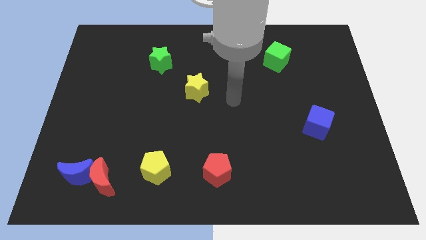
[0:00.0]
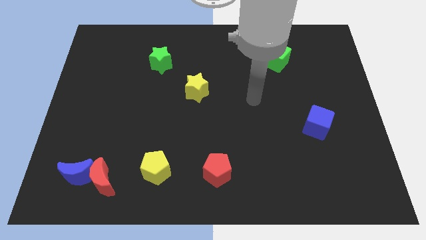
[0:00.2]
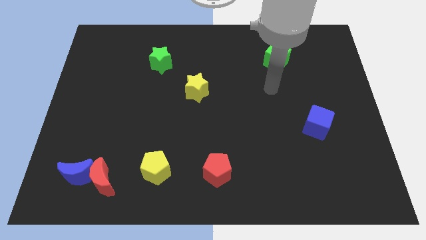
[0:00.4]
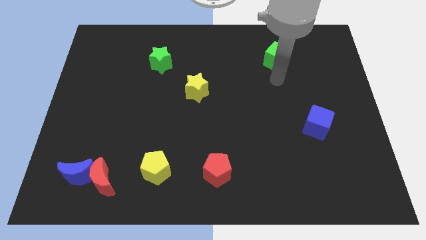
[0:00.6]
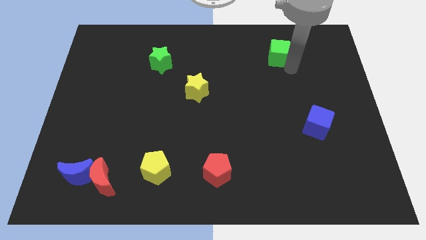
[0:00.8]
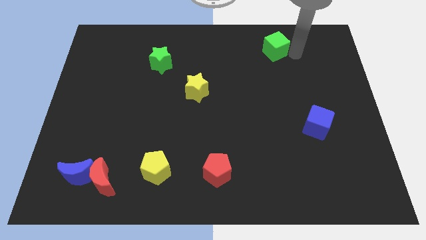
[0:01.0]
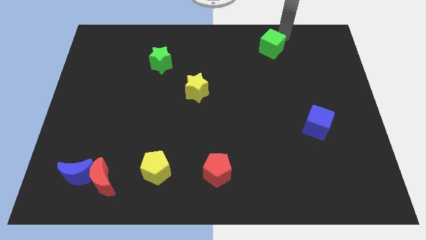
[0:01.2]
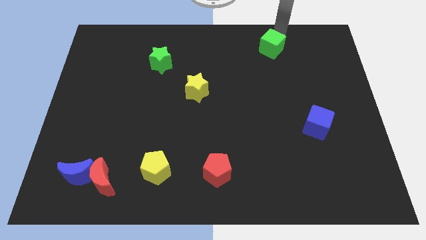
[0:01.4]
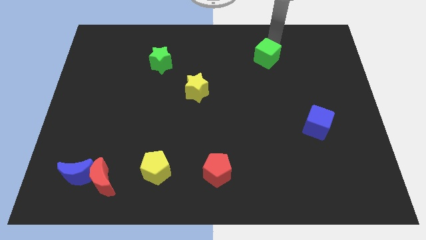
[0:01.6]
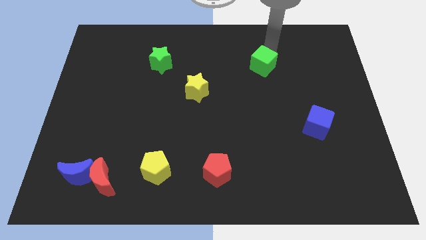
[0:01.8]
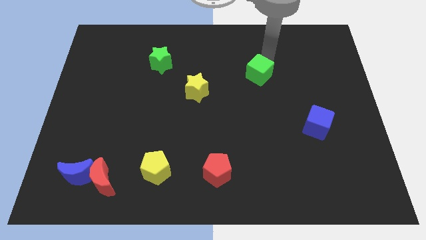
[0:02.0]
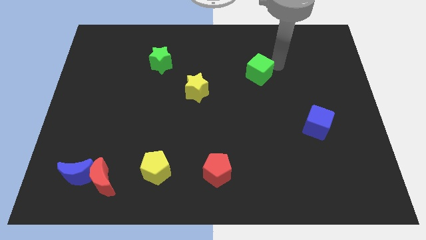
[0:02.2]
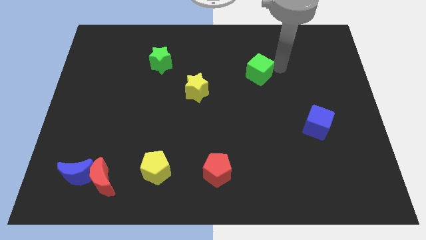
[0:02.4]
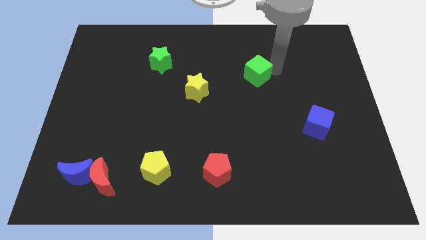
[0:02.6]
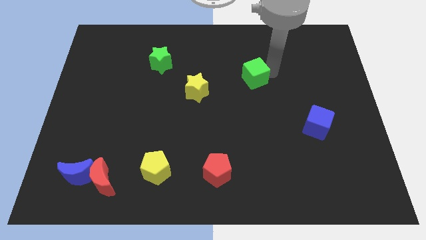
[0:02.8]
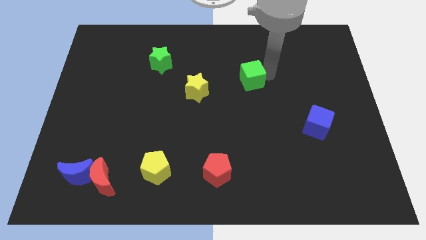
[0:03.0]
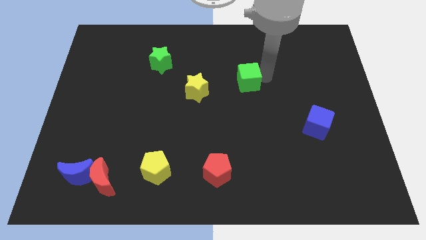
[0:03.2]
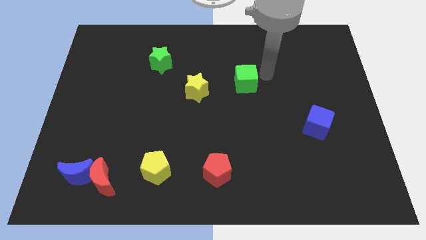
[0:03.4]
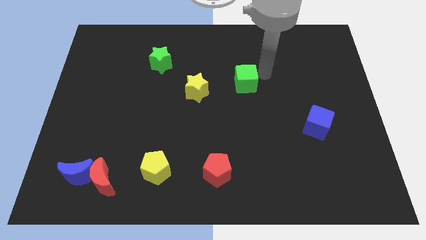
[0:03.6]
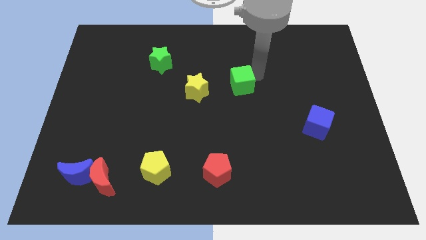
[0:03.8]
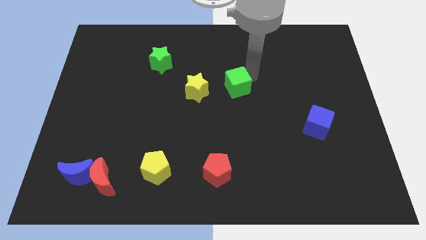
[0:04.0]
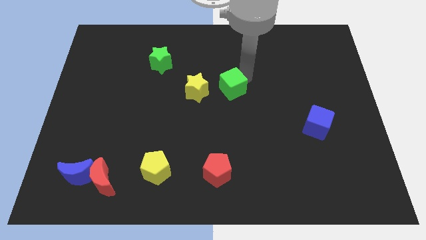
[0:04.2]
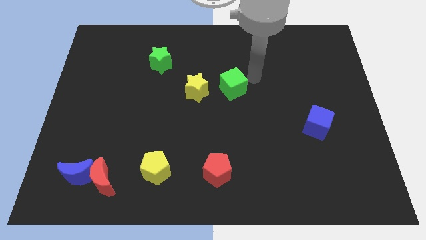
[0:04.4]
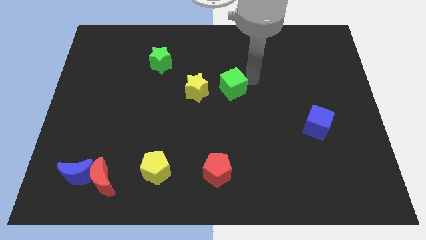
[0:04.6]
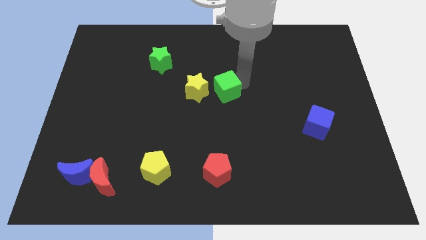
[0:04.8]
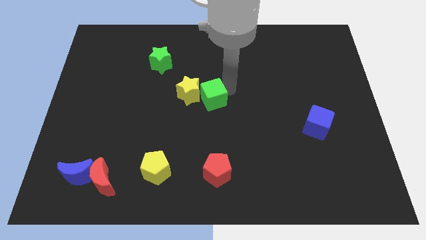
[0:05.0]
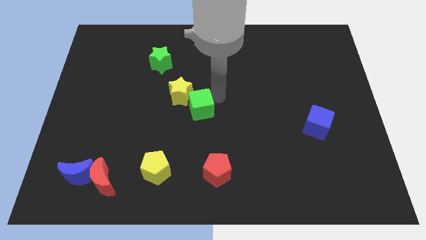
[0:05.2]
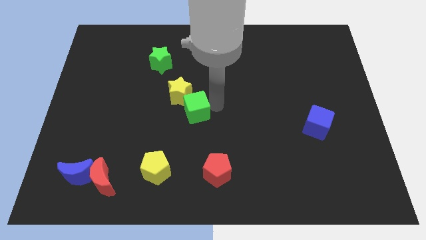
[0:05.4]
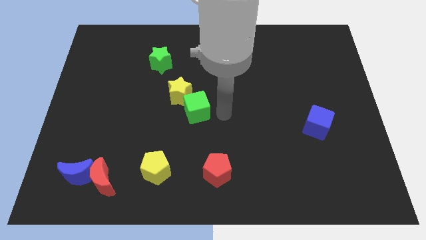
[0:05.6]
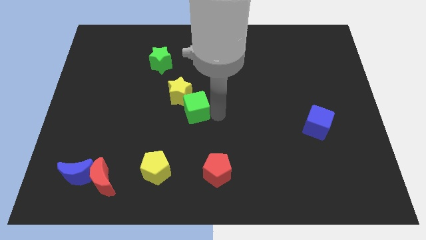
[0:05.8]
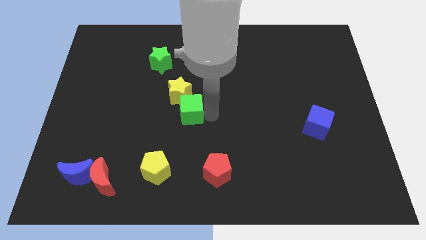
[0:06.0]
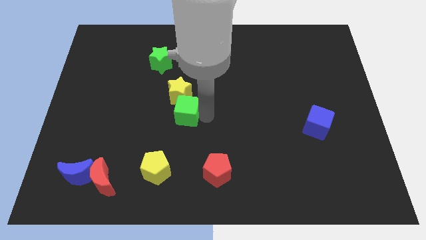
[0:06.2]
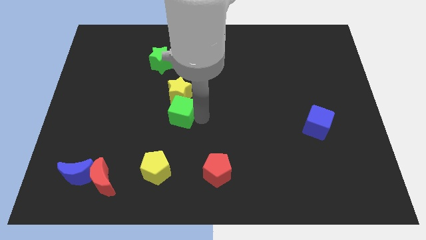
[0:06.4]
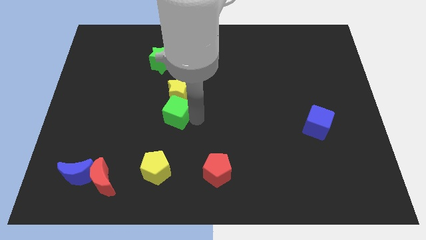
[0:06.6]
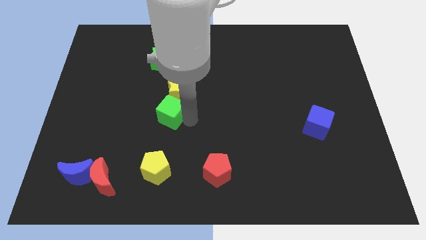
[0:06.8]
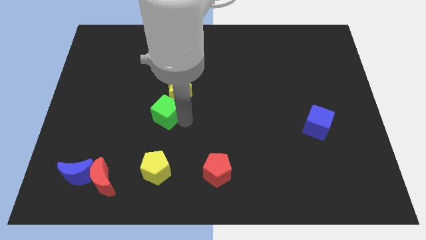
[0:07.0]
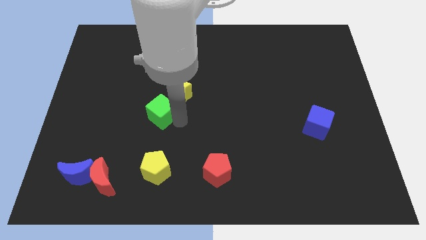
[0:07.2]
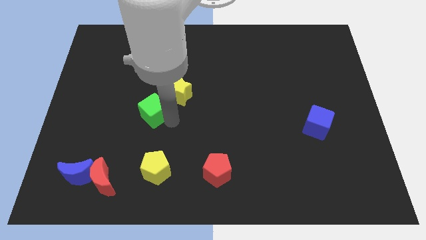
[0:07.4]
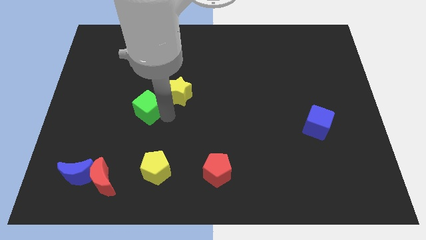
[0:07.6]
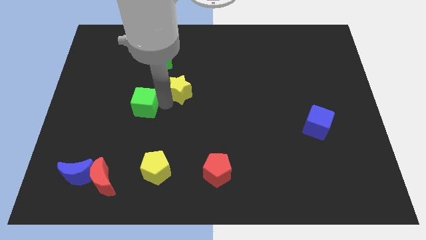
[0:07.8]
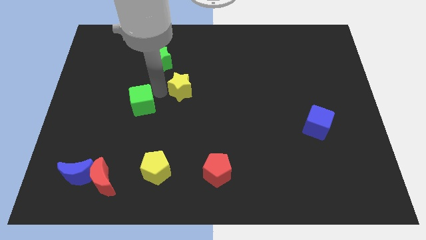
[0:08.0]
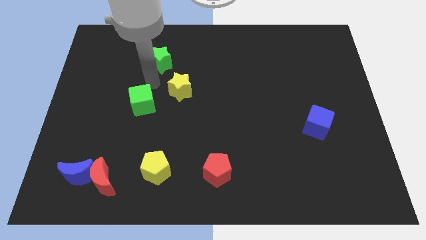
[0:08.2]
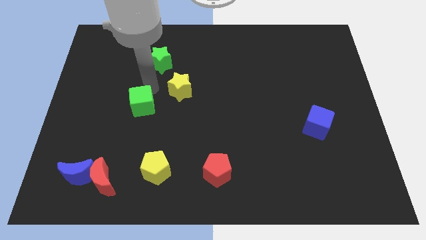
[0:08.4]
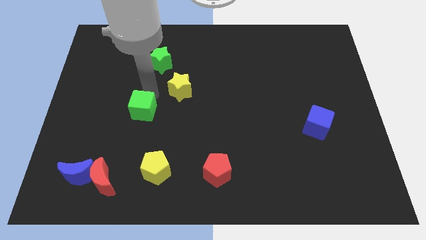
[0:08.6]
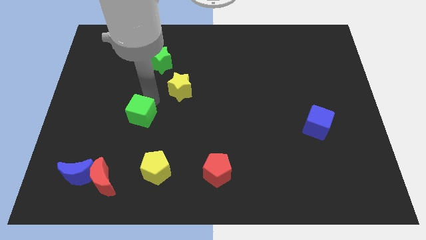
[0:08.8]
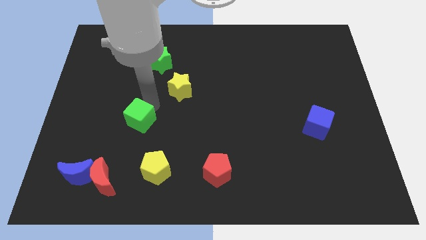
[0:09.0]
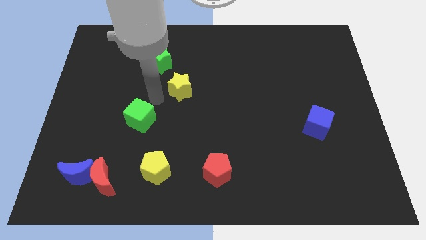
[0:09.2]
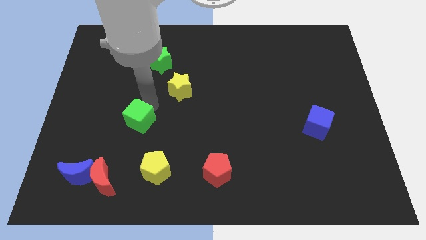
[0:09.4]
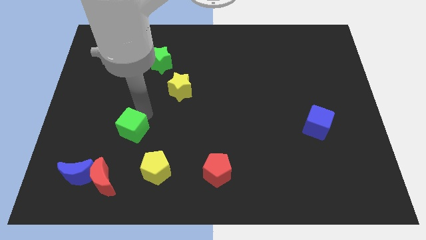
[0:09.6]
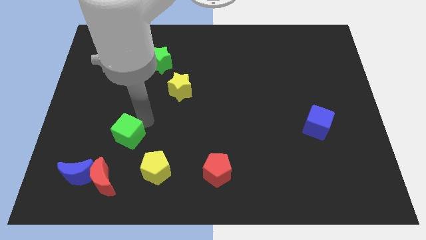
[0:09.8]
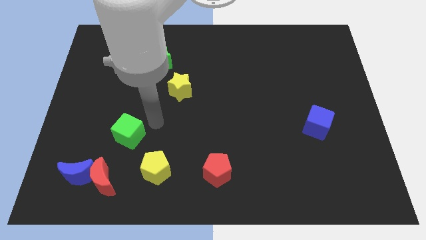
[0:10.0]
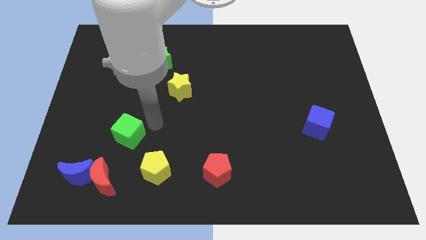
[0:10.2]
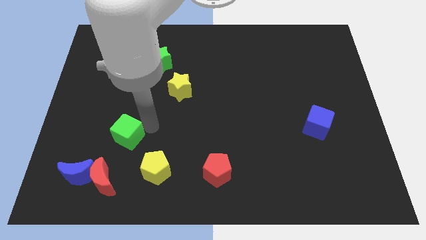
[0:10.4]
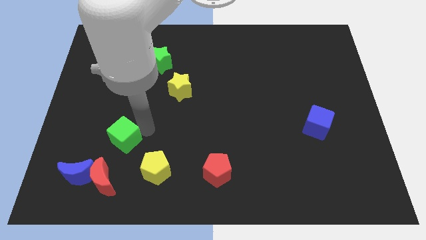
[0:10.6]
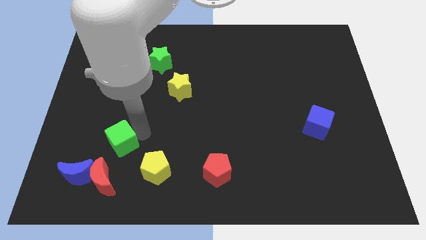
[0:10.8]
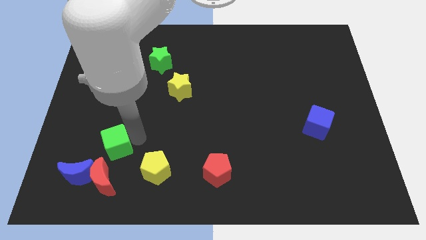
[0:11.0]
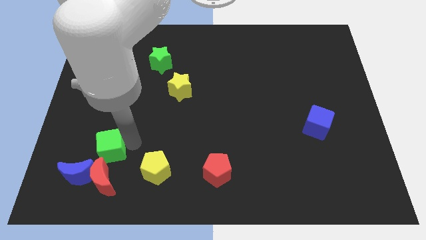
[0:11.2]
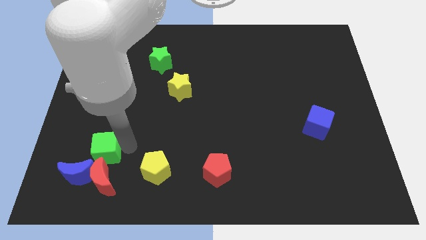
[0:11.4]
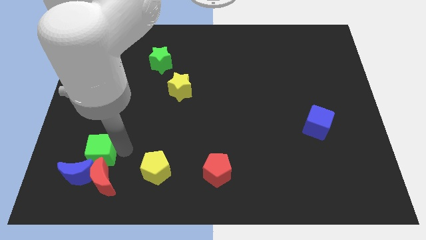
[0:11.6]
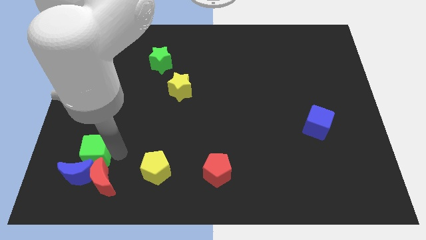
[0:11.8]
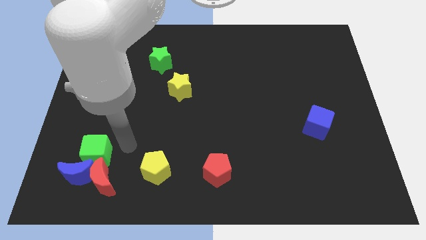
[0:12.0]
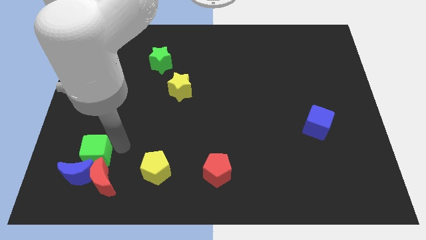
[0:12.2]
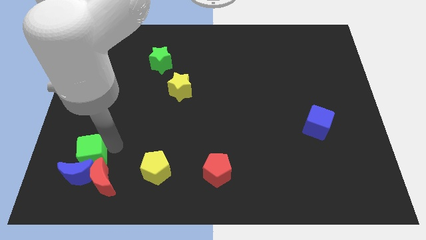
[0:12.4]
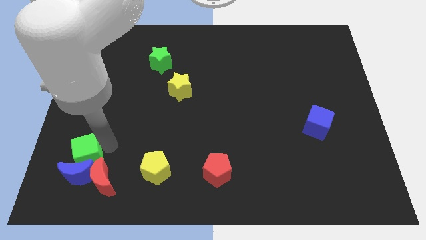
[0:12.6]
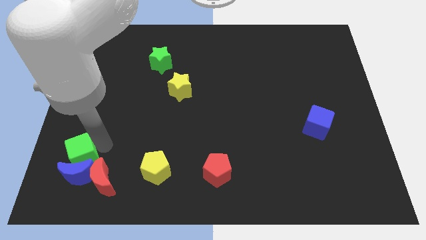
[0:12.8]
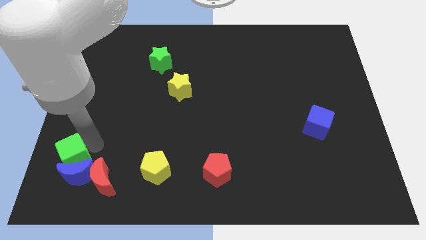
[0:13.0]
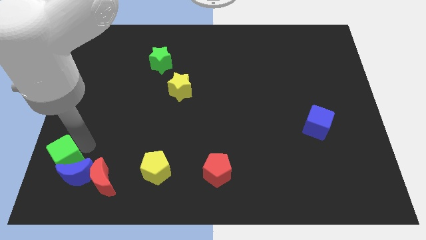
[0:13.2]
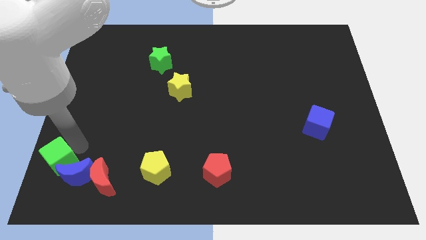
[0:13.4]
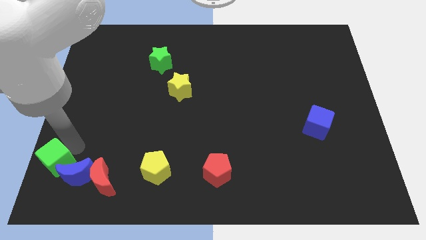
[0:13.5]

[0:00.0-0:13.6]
push the green cube to the bottom left corner

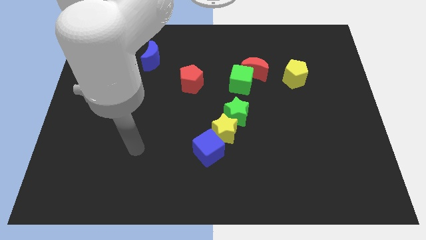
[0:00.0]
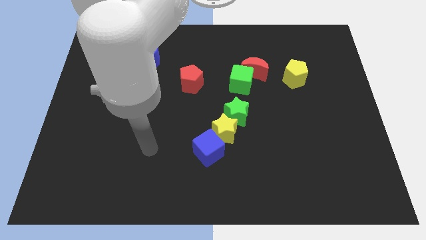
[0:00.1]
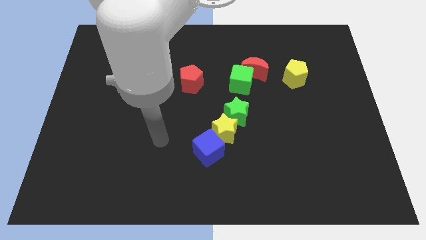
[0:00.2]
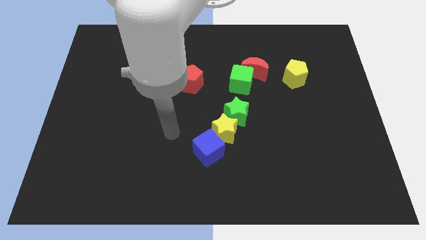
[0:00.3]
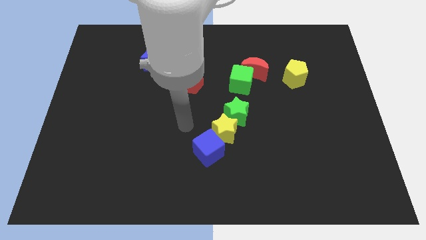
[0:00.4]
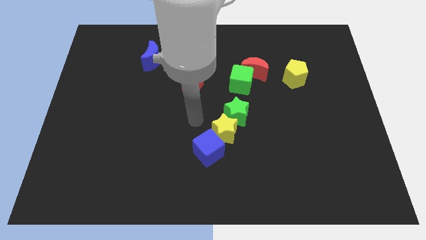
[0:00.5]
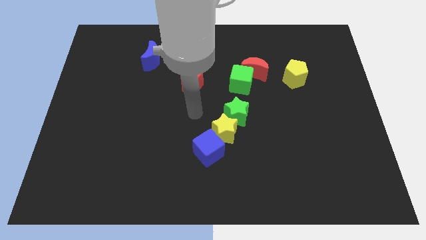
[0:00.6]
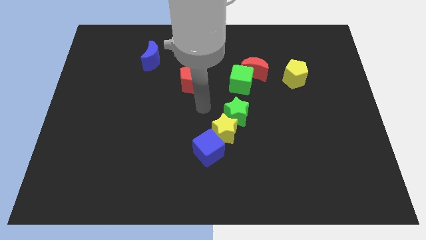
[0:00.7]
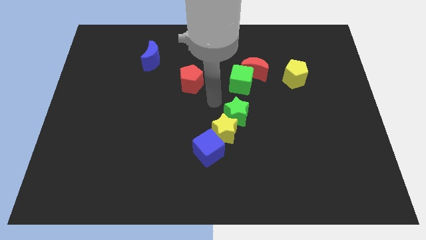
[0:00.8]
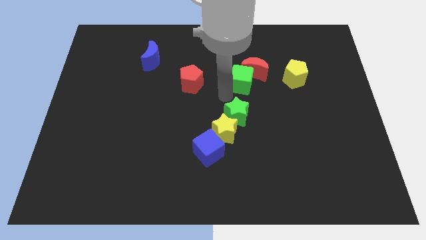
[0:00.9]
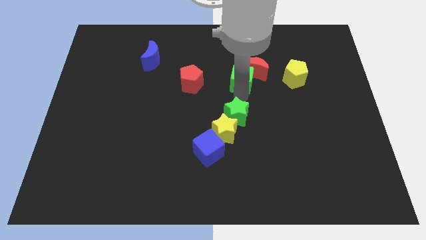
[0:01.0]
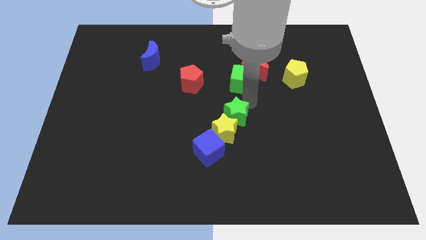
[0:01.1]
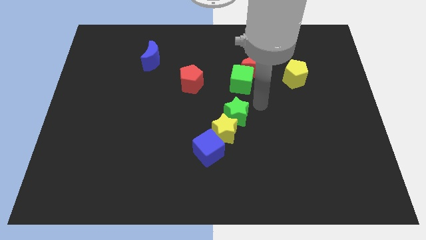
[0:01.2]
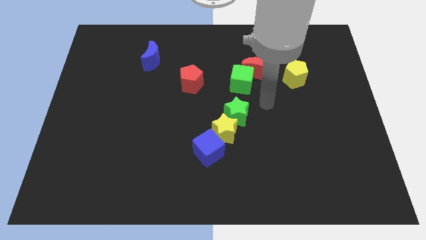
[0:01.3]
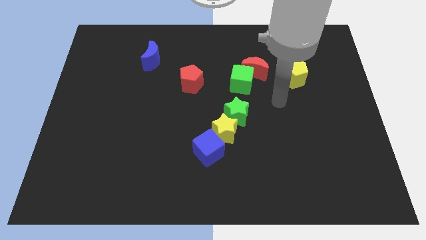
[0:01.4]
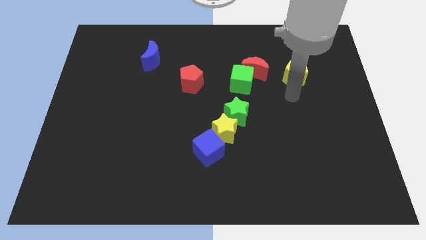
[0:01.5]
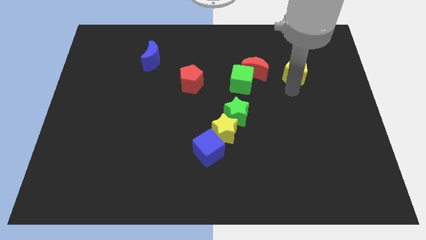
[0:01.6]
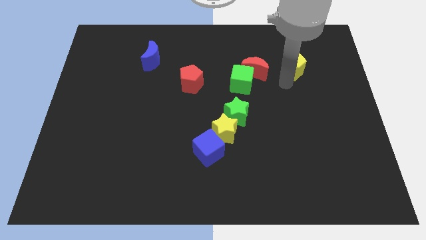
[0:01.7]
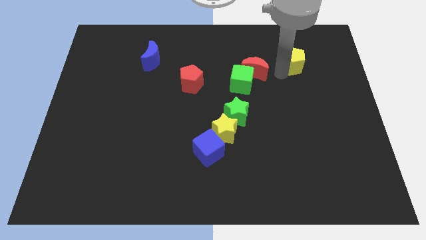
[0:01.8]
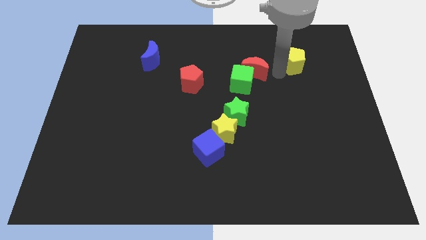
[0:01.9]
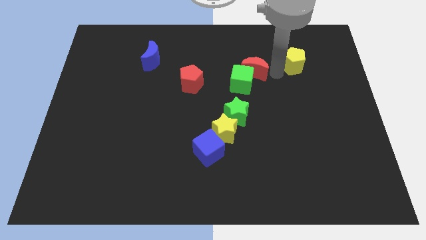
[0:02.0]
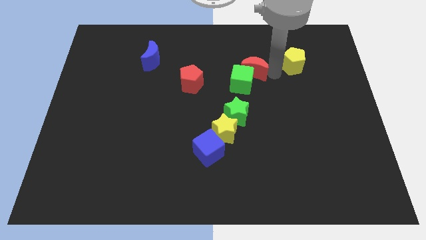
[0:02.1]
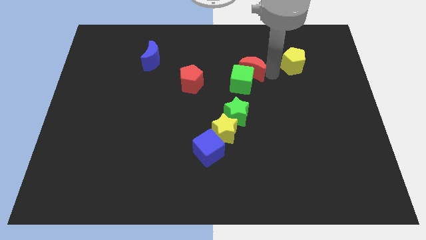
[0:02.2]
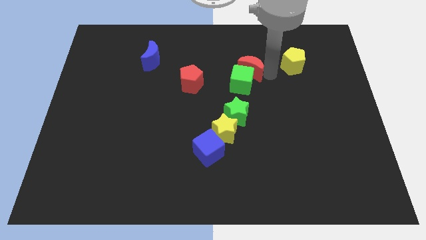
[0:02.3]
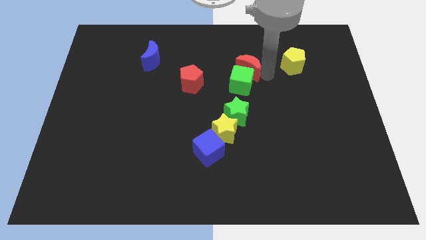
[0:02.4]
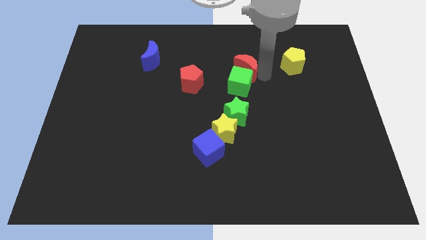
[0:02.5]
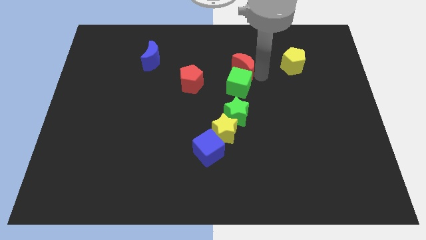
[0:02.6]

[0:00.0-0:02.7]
move the red moon to the middle
